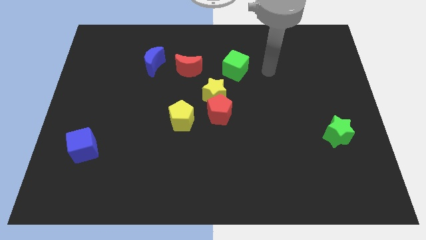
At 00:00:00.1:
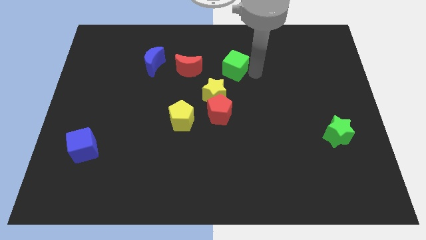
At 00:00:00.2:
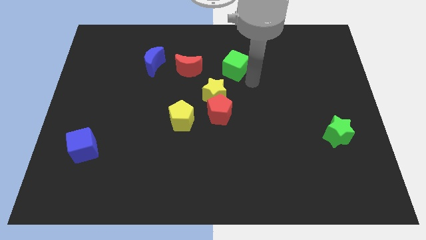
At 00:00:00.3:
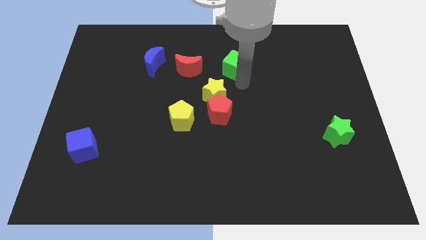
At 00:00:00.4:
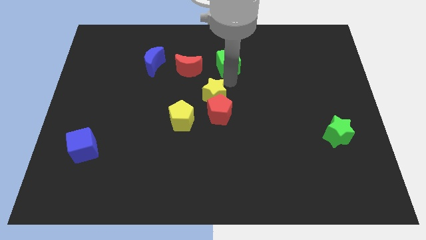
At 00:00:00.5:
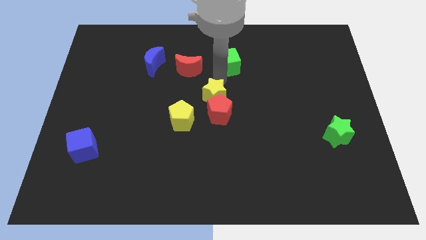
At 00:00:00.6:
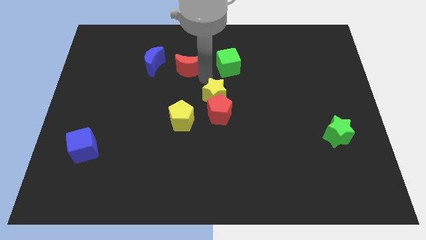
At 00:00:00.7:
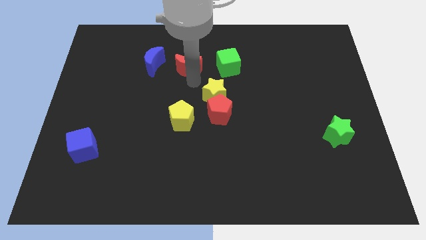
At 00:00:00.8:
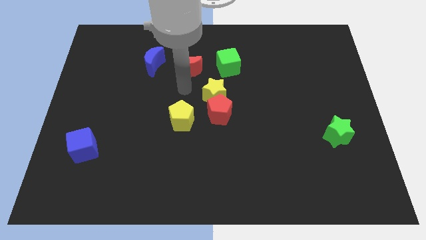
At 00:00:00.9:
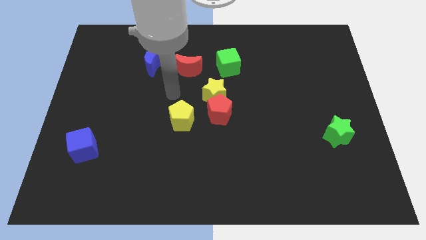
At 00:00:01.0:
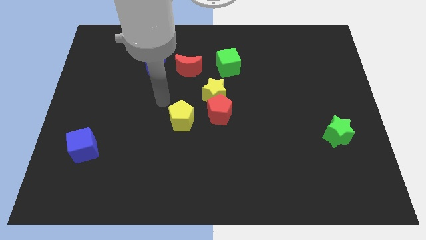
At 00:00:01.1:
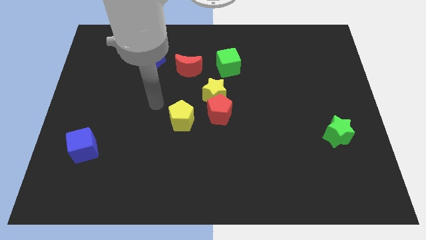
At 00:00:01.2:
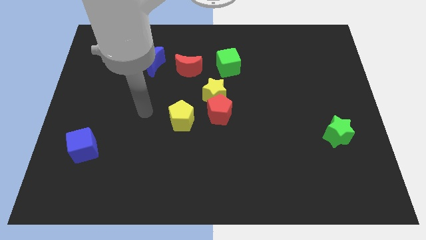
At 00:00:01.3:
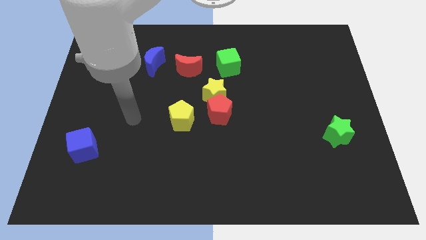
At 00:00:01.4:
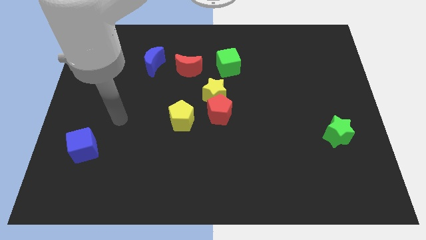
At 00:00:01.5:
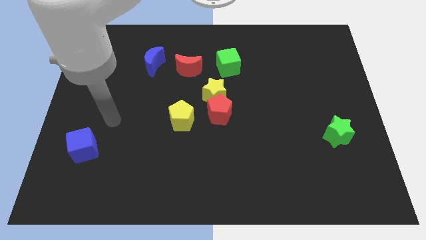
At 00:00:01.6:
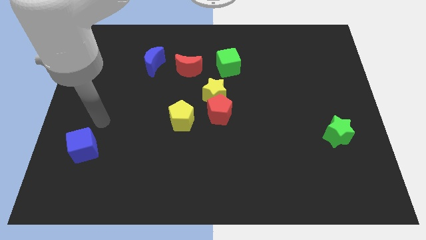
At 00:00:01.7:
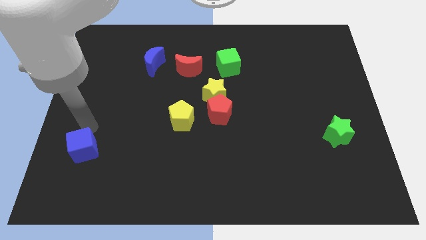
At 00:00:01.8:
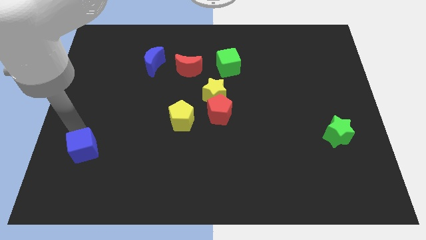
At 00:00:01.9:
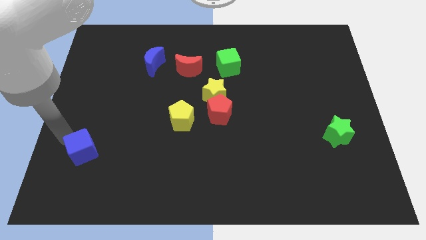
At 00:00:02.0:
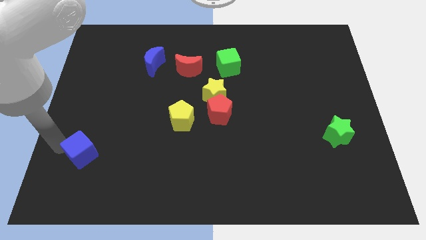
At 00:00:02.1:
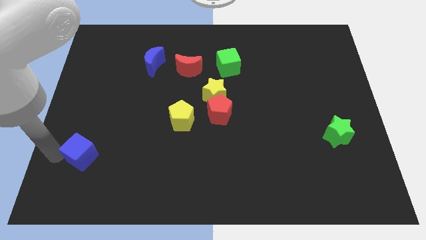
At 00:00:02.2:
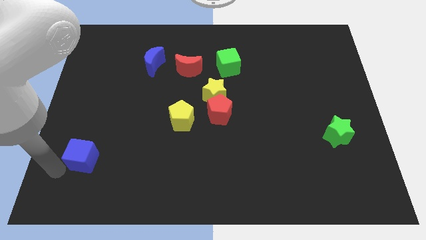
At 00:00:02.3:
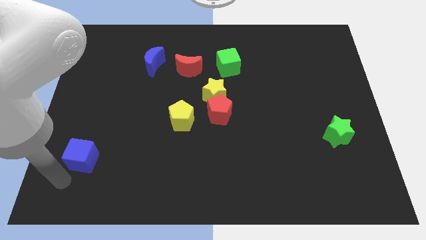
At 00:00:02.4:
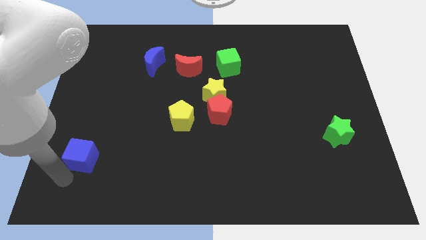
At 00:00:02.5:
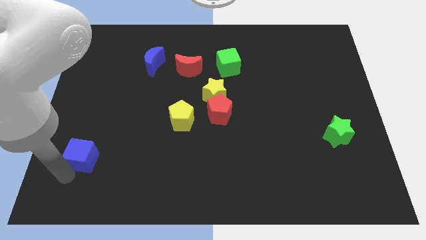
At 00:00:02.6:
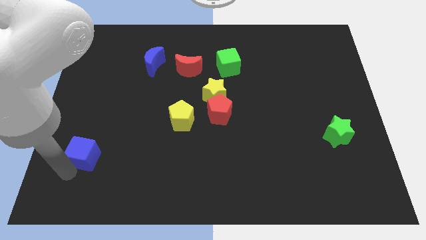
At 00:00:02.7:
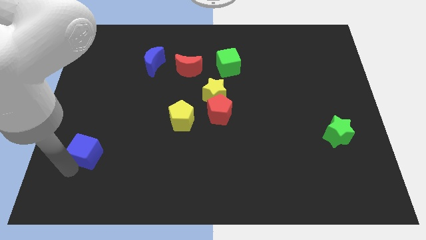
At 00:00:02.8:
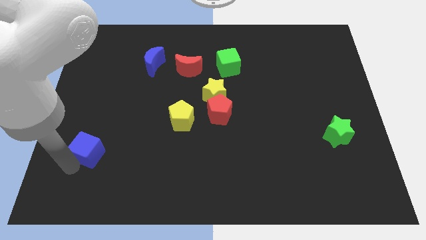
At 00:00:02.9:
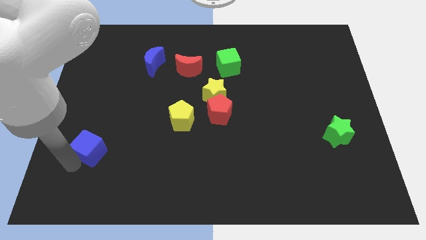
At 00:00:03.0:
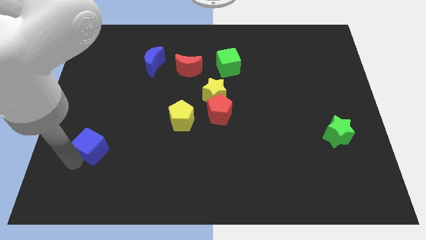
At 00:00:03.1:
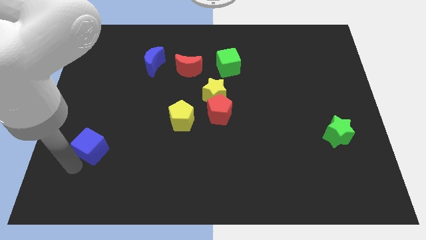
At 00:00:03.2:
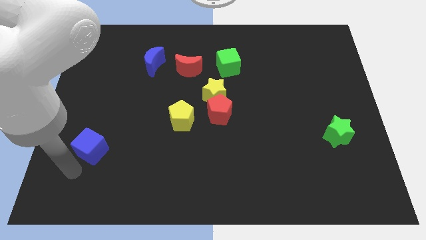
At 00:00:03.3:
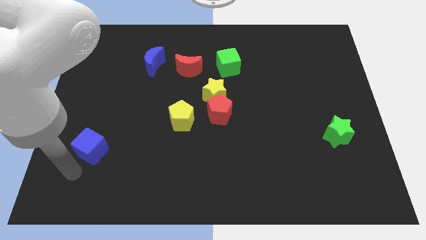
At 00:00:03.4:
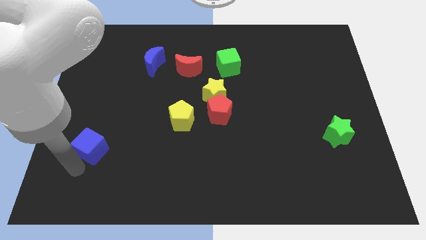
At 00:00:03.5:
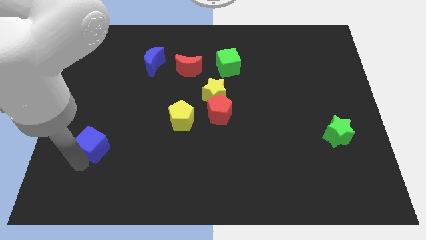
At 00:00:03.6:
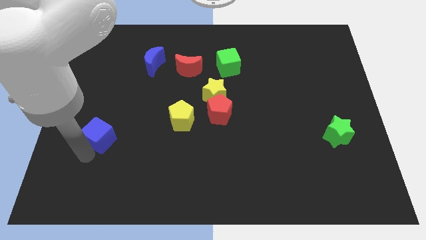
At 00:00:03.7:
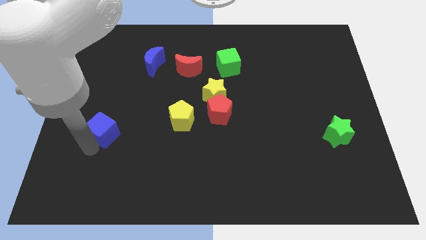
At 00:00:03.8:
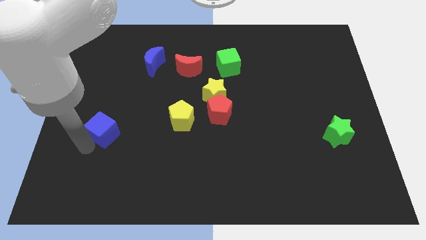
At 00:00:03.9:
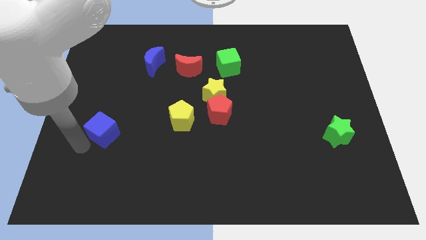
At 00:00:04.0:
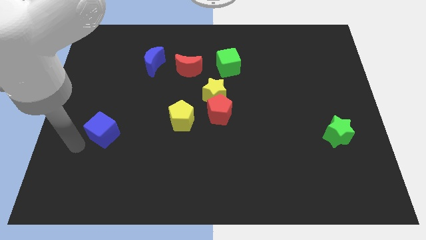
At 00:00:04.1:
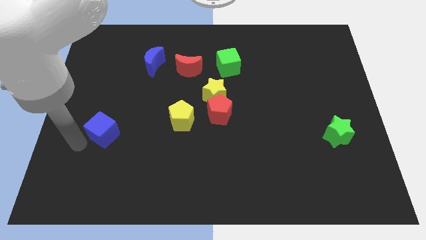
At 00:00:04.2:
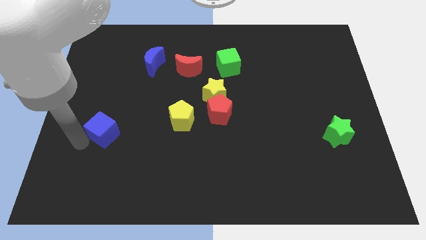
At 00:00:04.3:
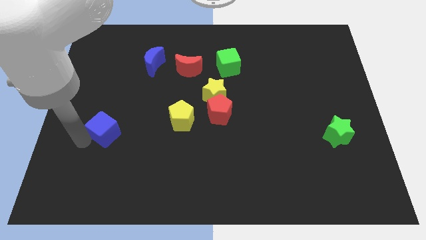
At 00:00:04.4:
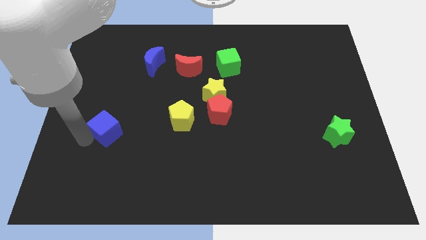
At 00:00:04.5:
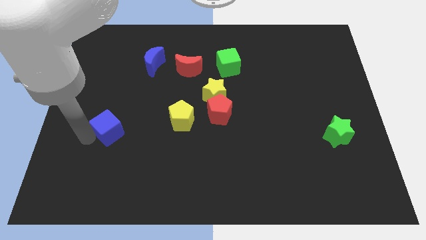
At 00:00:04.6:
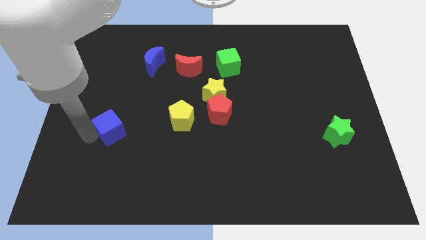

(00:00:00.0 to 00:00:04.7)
push the blue cube a little bit diagonally up and to the right

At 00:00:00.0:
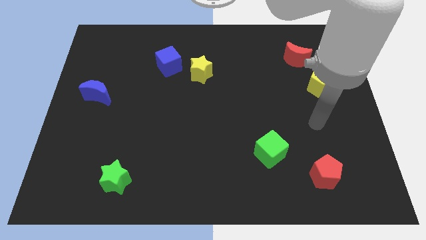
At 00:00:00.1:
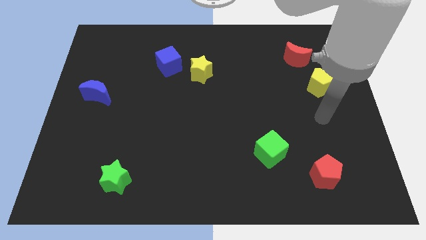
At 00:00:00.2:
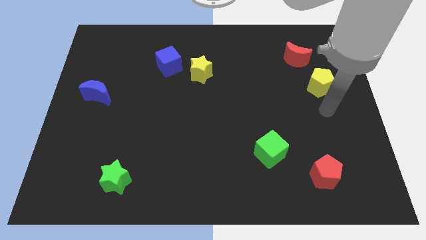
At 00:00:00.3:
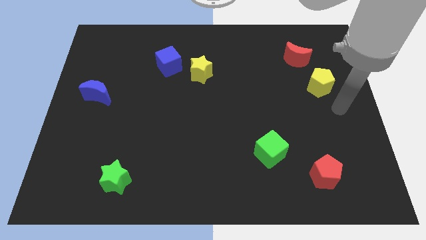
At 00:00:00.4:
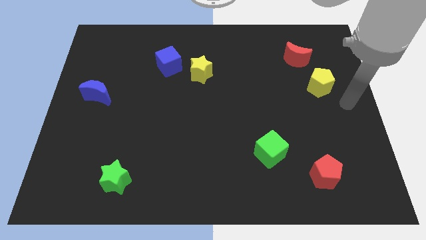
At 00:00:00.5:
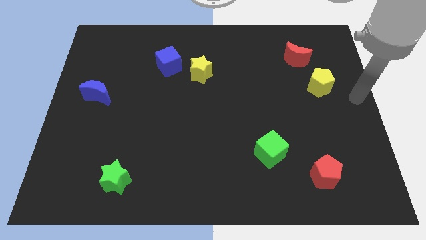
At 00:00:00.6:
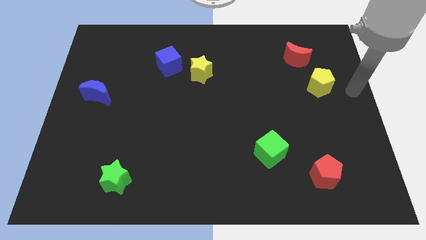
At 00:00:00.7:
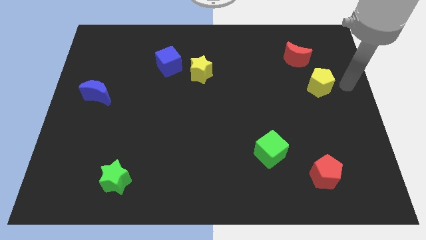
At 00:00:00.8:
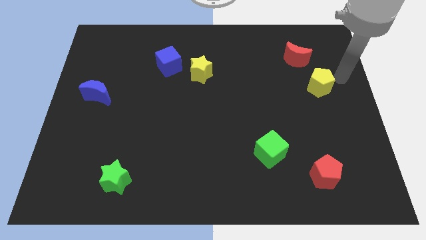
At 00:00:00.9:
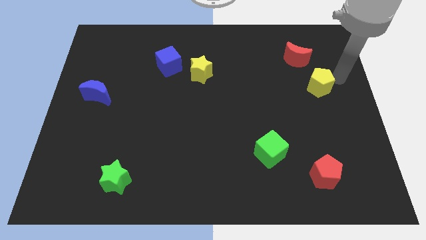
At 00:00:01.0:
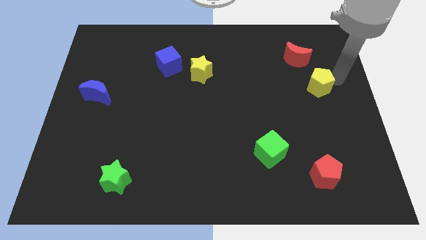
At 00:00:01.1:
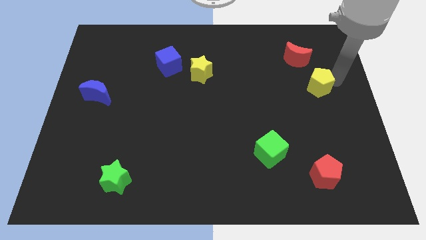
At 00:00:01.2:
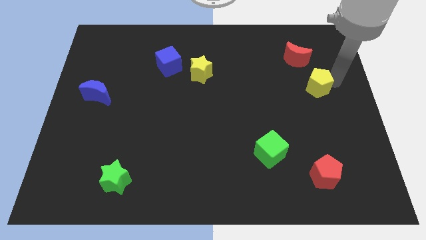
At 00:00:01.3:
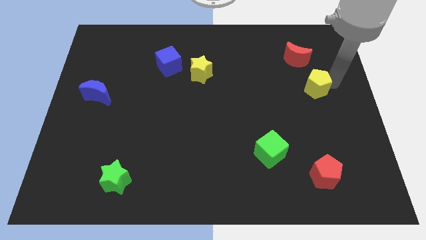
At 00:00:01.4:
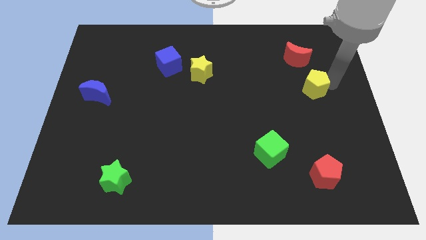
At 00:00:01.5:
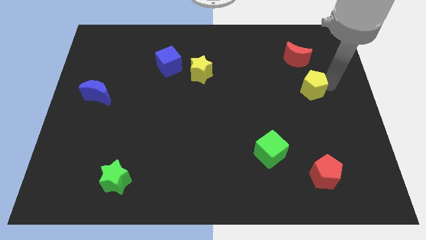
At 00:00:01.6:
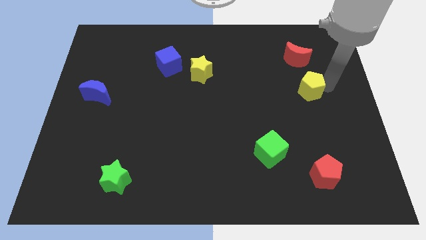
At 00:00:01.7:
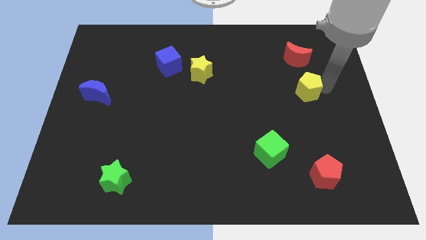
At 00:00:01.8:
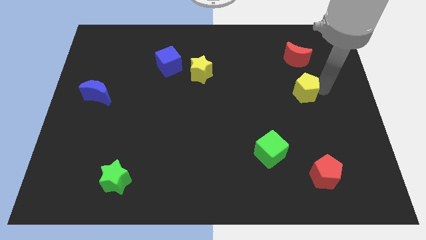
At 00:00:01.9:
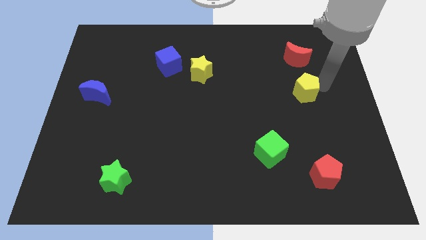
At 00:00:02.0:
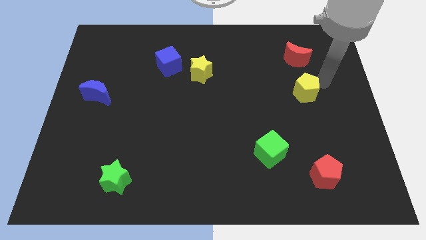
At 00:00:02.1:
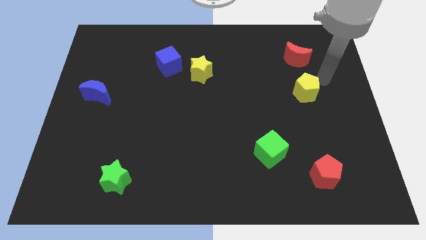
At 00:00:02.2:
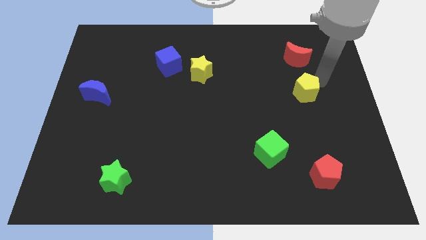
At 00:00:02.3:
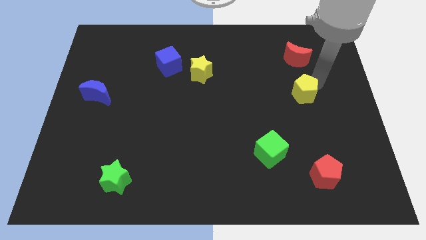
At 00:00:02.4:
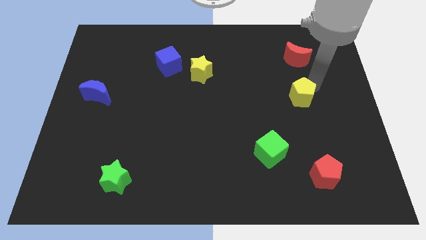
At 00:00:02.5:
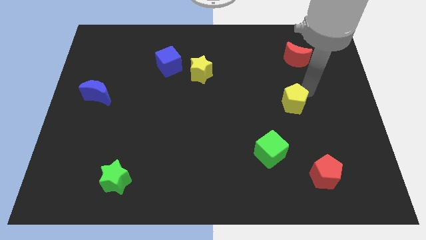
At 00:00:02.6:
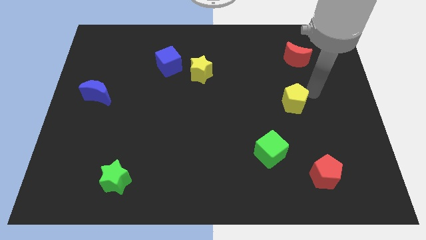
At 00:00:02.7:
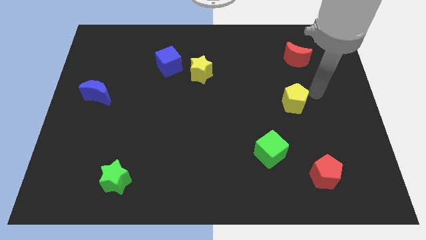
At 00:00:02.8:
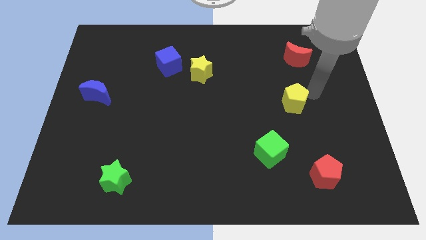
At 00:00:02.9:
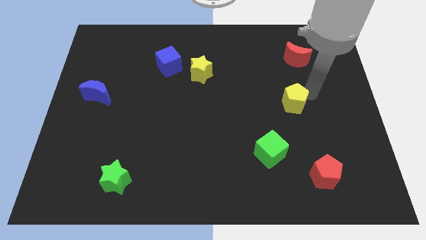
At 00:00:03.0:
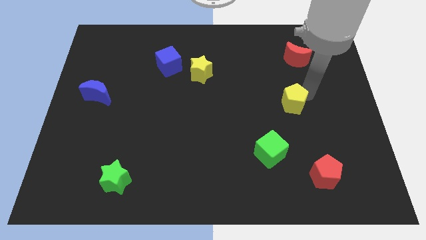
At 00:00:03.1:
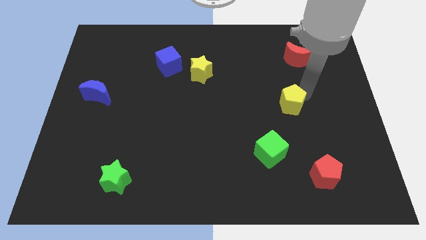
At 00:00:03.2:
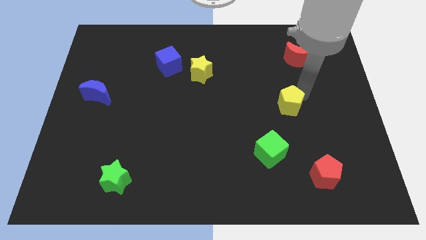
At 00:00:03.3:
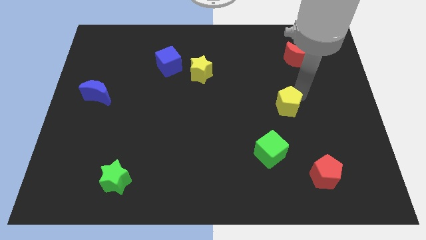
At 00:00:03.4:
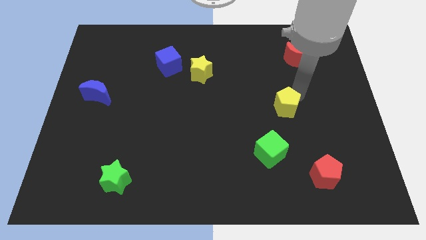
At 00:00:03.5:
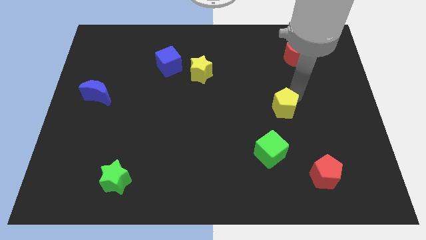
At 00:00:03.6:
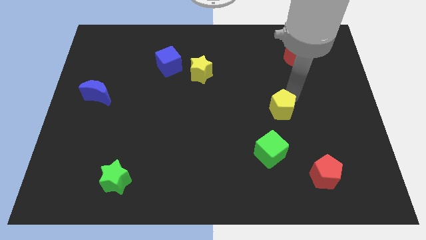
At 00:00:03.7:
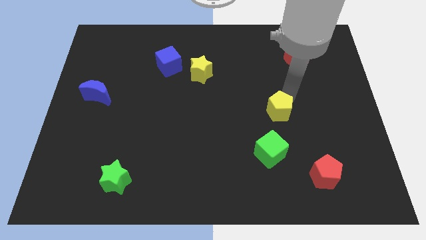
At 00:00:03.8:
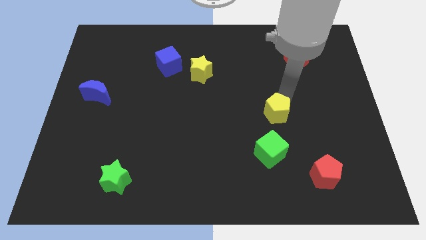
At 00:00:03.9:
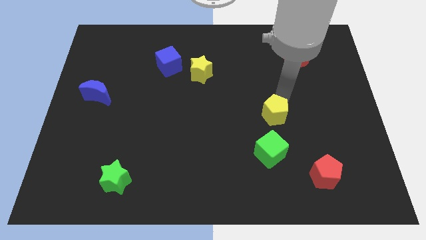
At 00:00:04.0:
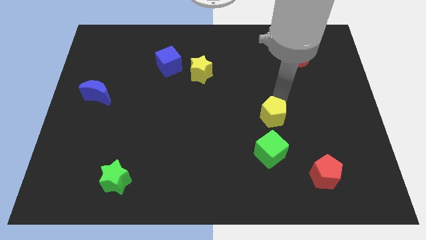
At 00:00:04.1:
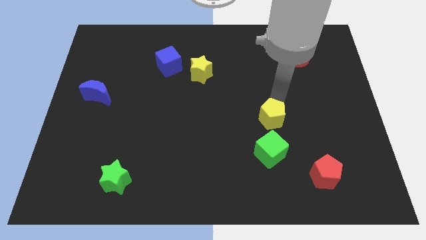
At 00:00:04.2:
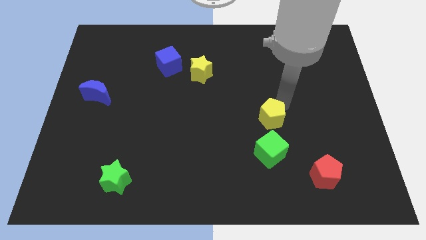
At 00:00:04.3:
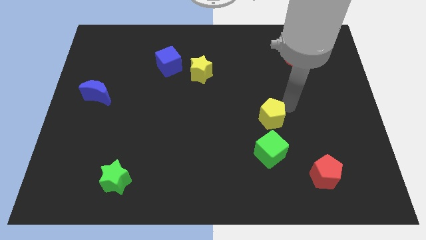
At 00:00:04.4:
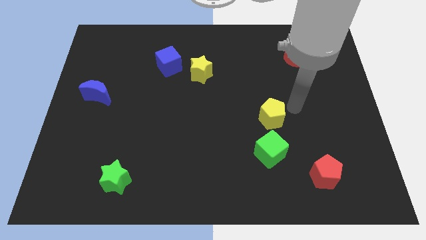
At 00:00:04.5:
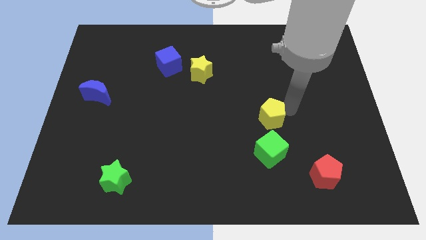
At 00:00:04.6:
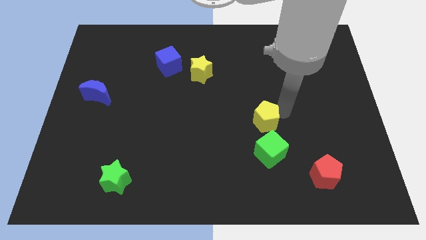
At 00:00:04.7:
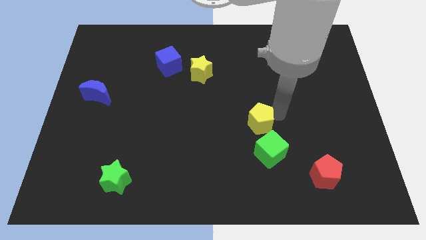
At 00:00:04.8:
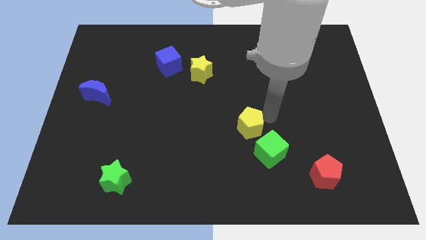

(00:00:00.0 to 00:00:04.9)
slide the yellow pentagon down and to the left diagonally
